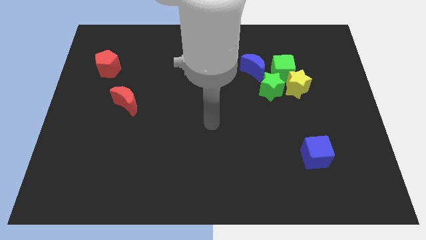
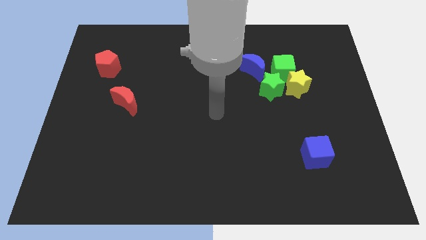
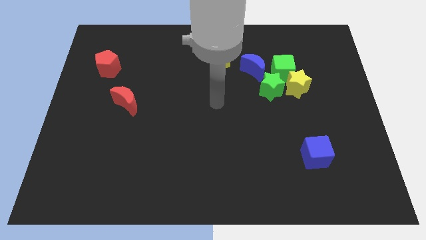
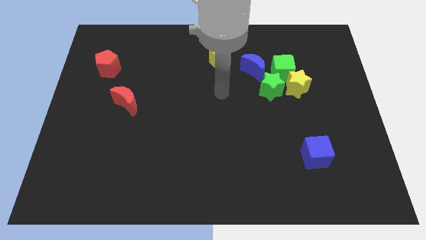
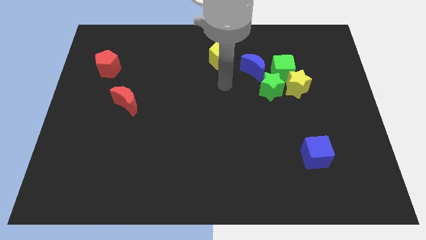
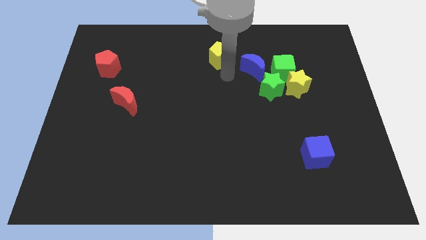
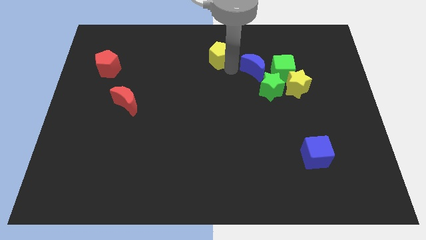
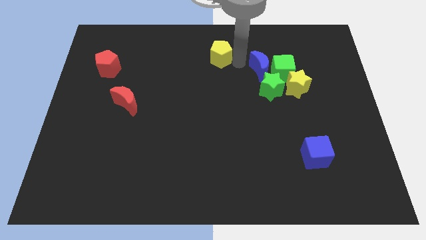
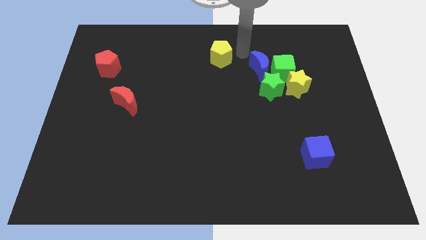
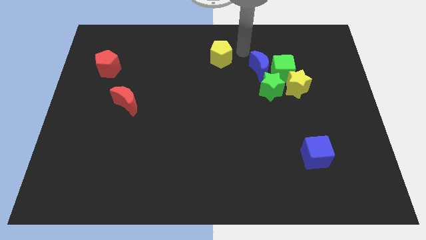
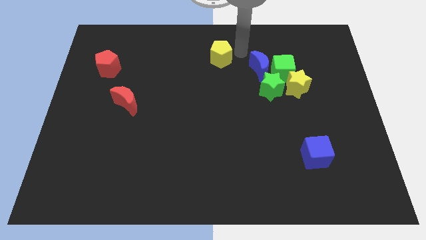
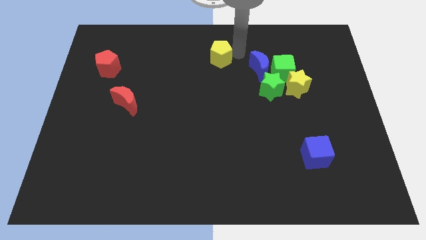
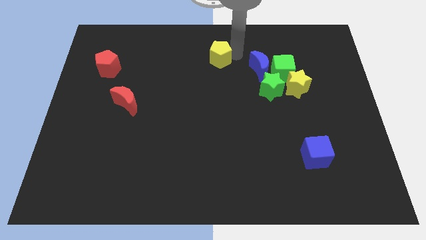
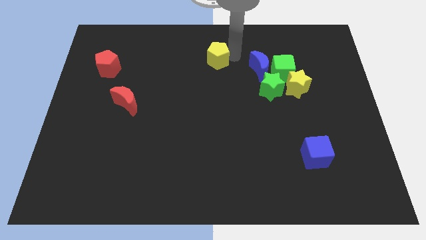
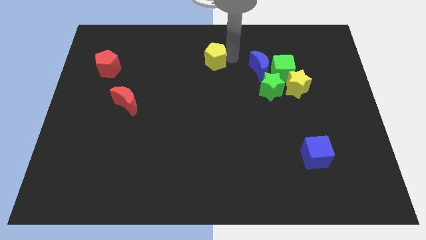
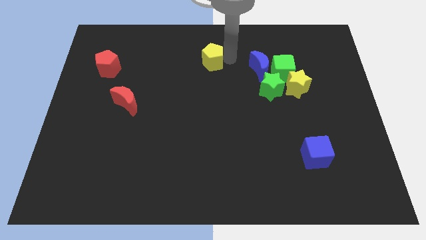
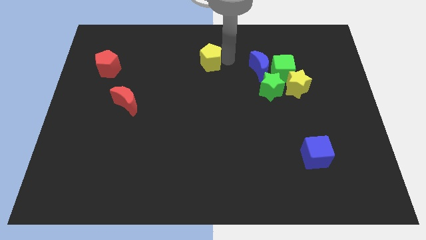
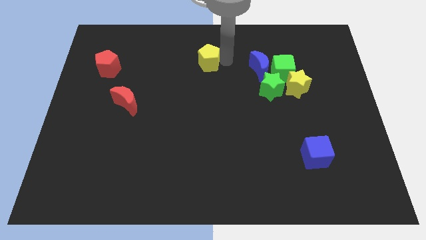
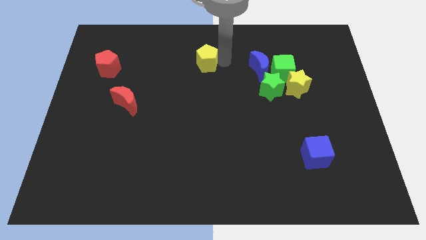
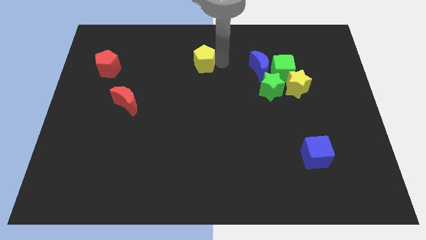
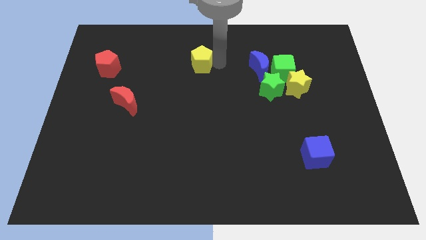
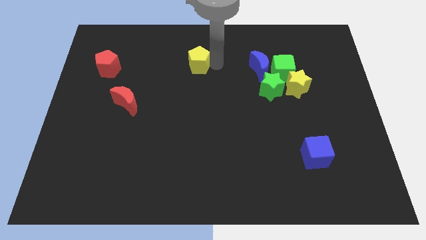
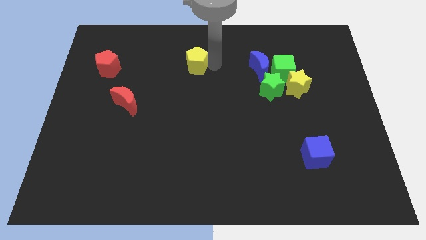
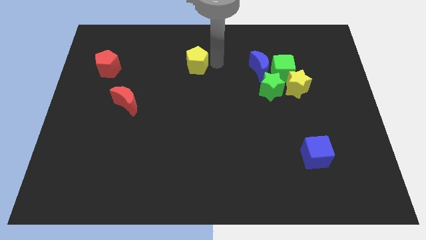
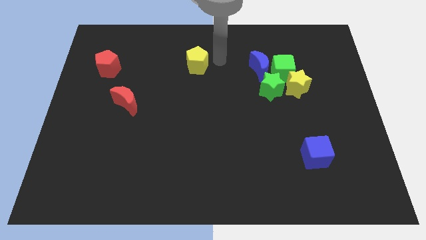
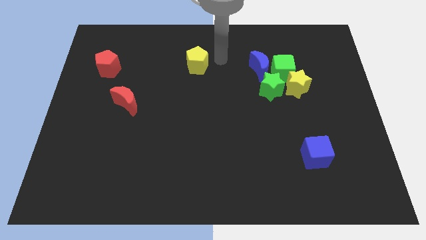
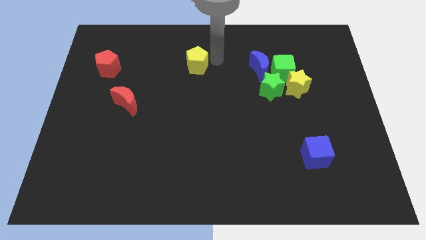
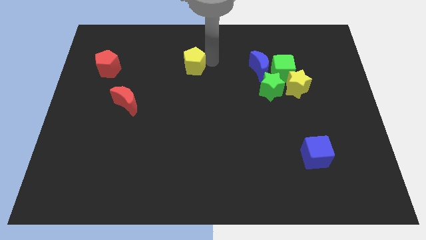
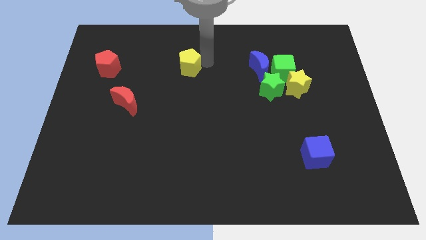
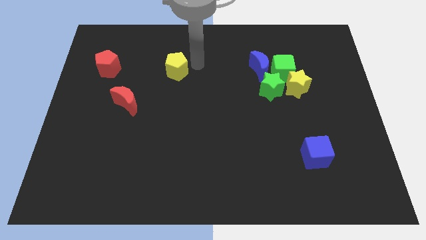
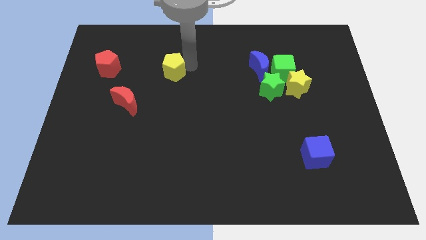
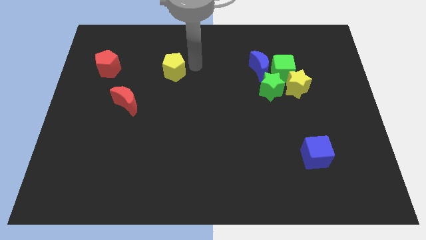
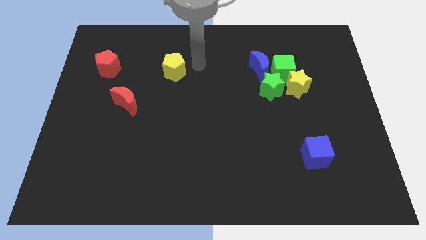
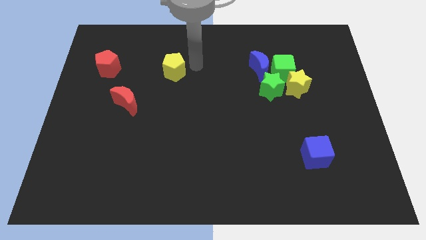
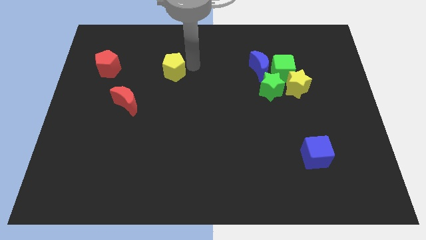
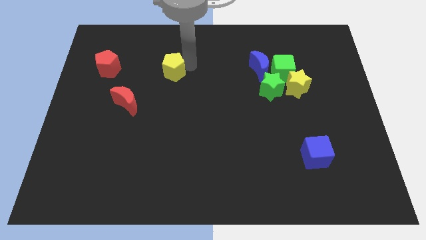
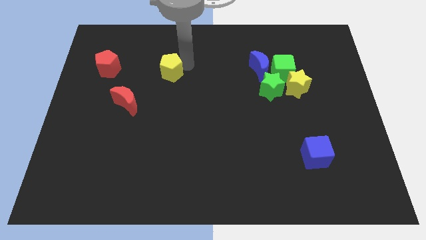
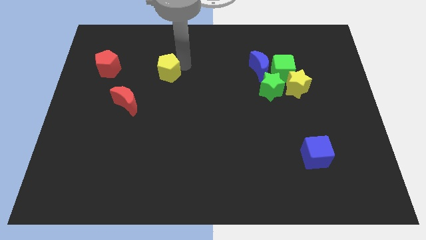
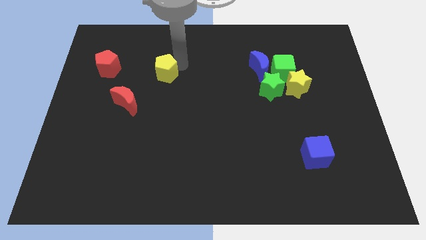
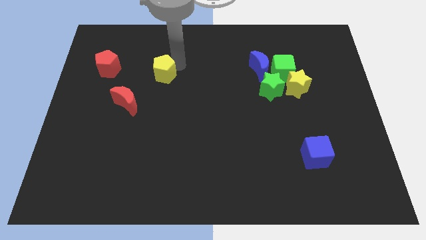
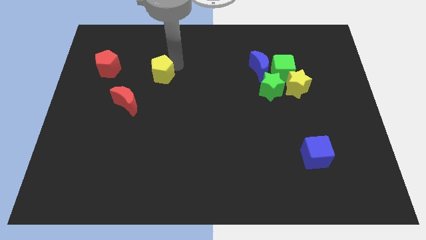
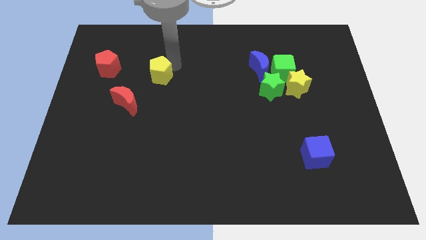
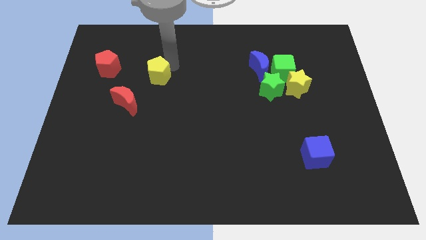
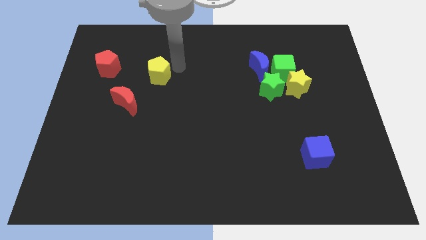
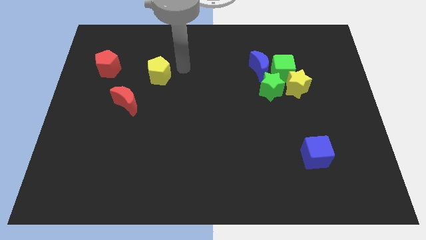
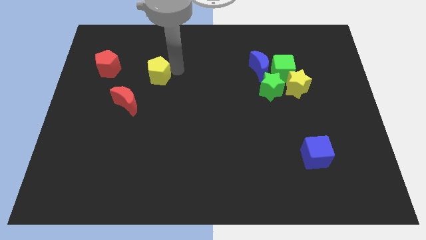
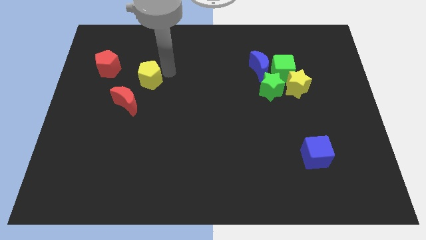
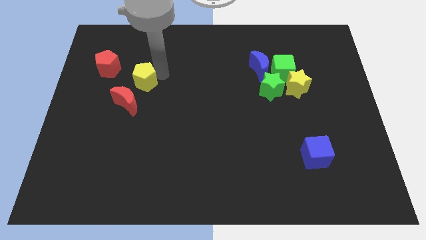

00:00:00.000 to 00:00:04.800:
put the yellow pentagon to the bottom right side of the red pentagon

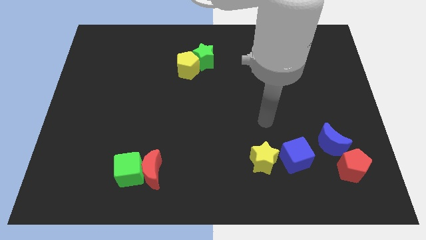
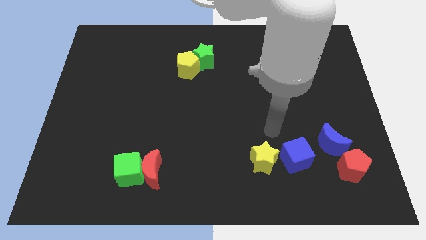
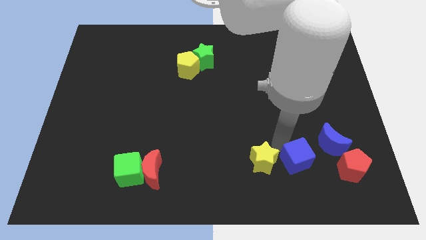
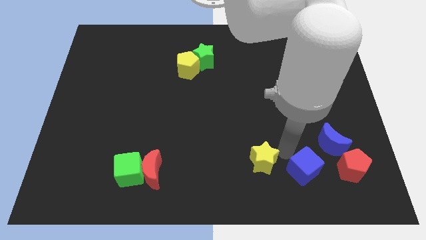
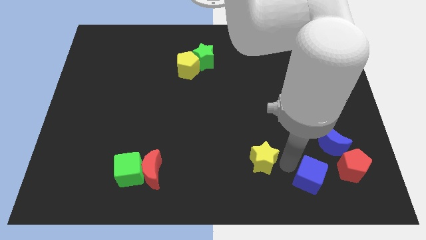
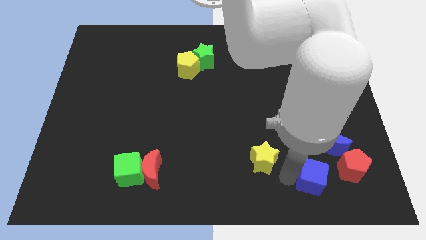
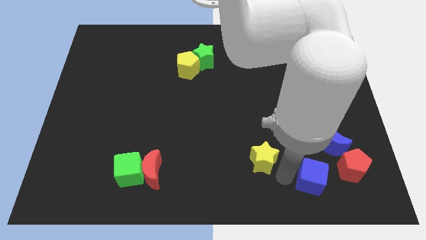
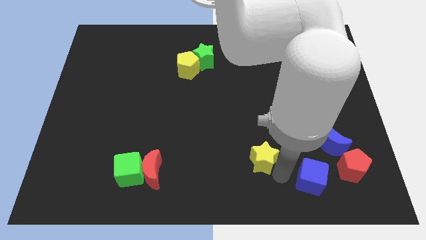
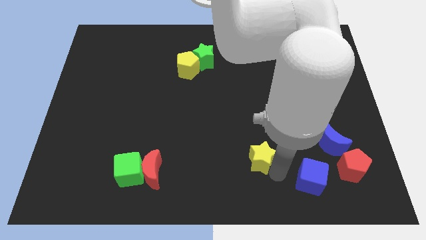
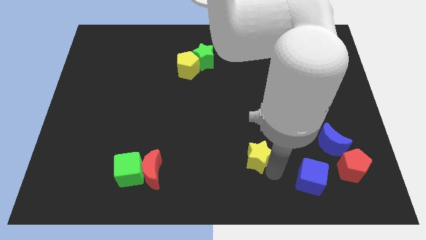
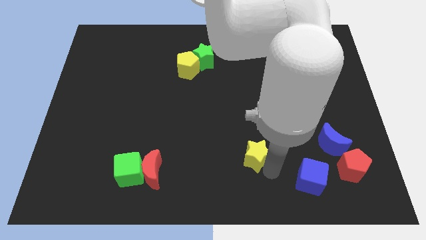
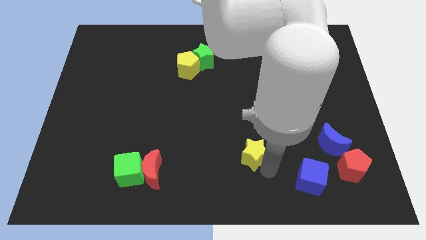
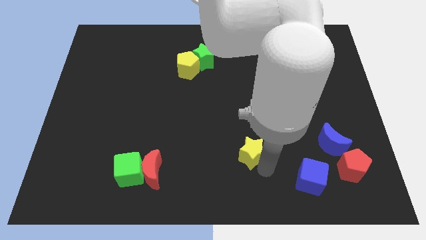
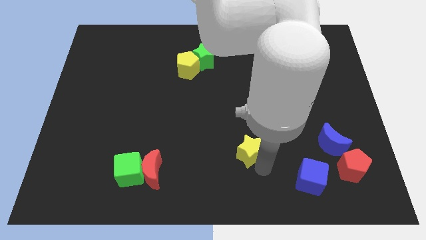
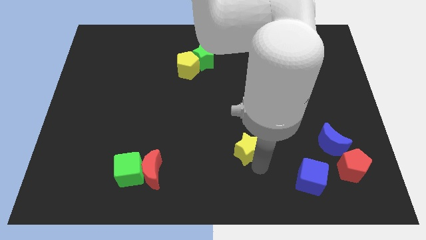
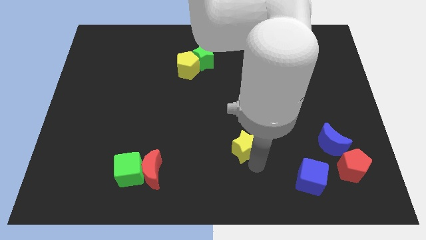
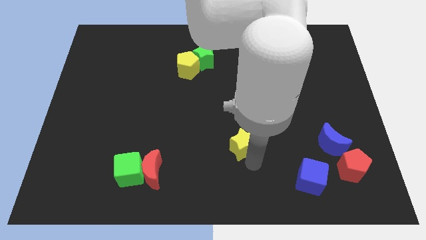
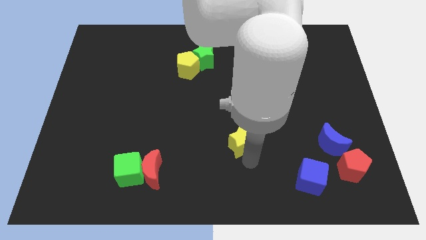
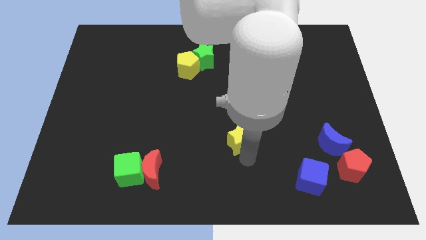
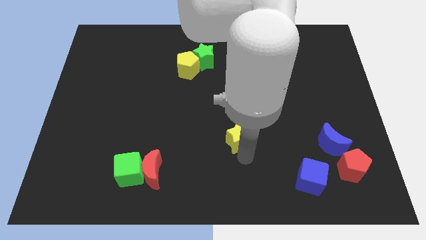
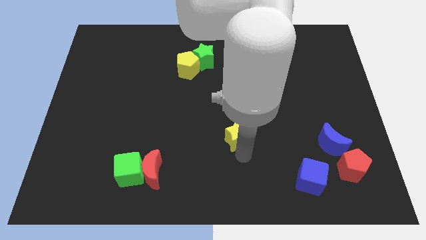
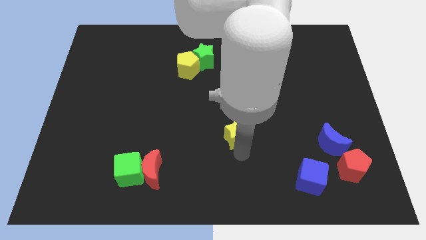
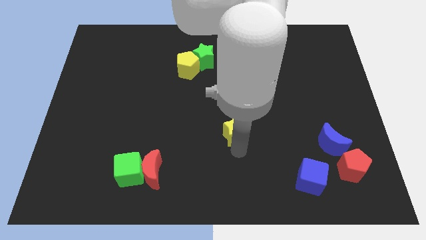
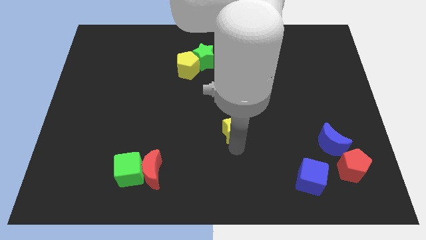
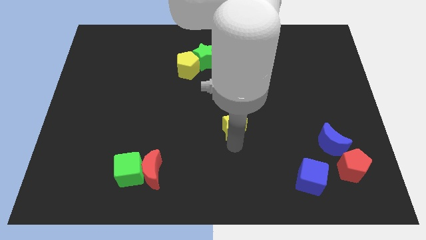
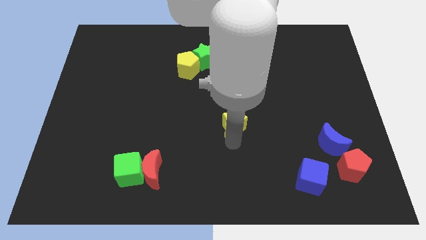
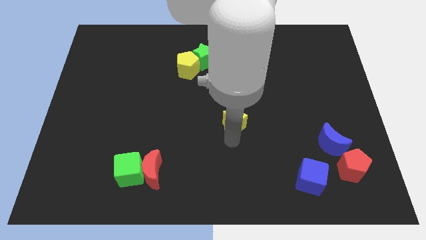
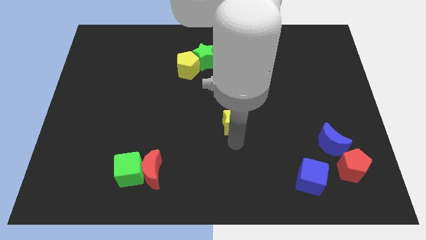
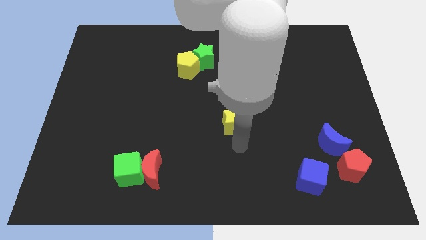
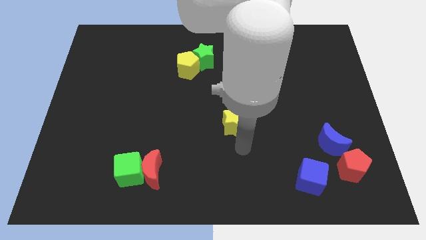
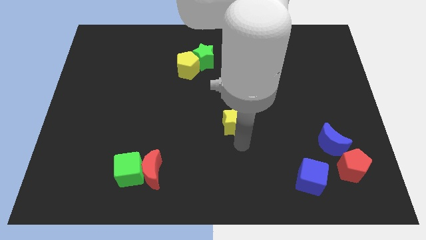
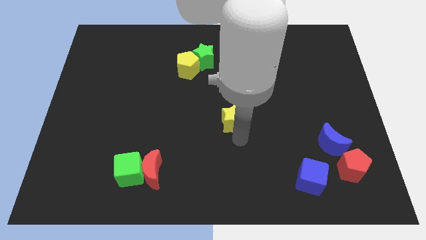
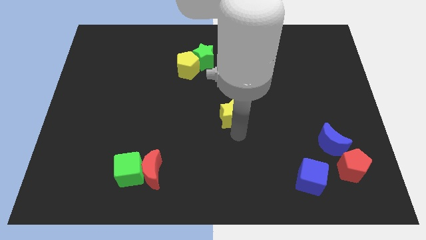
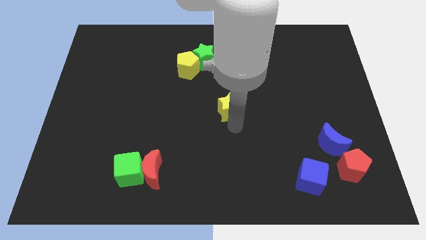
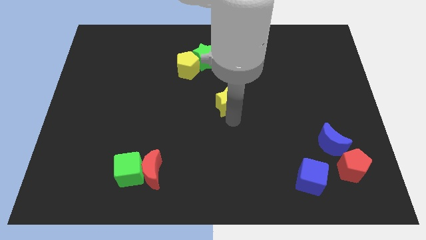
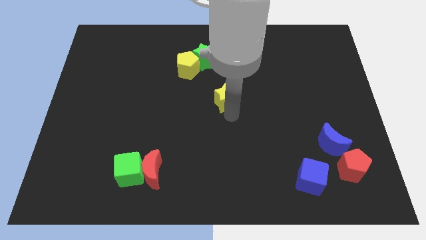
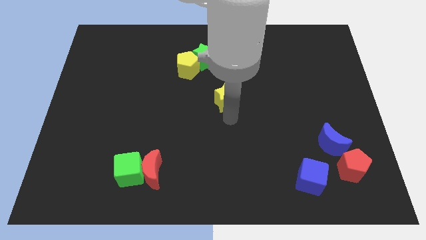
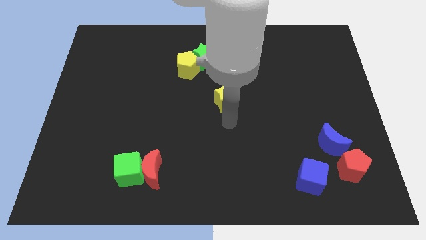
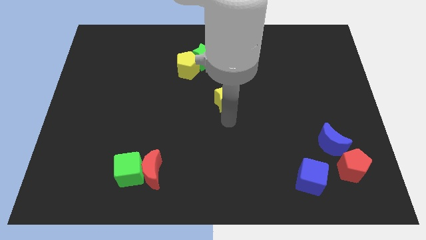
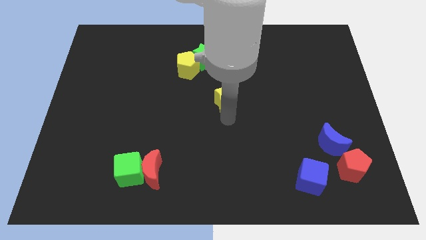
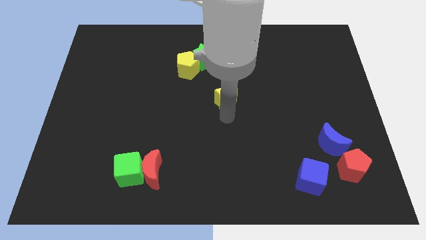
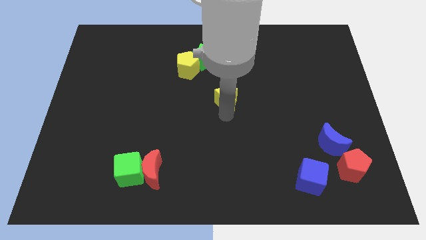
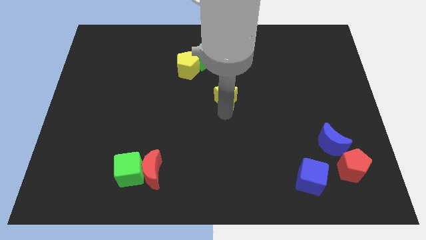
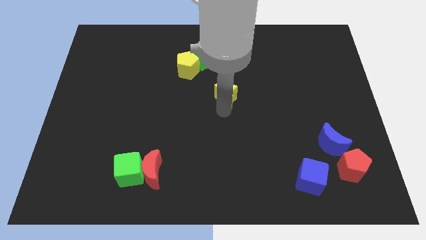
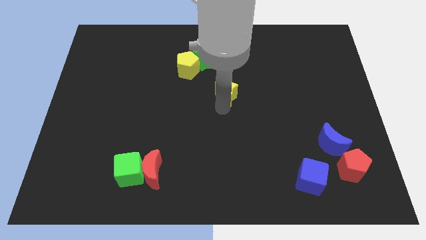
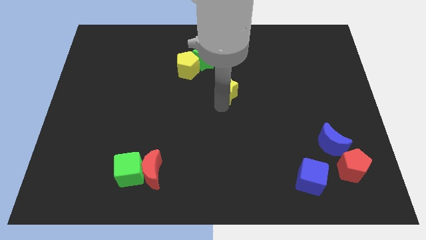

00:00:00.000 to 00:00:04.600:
slide the yellow star to the bottom right of the green star
